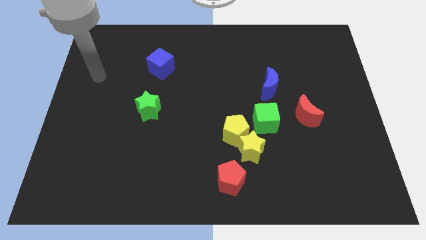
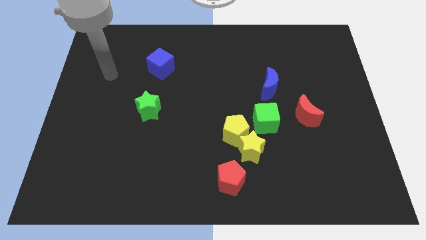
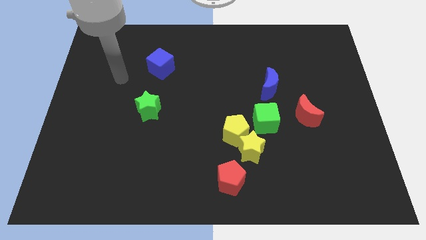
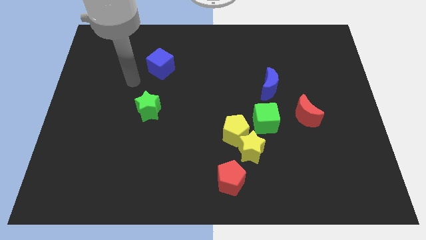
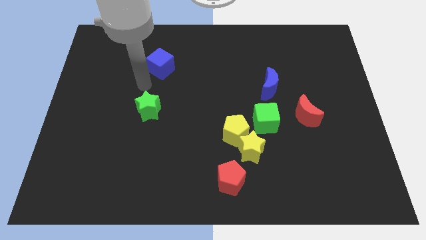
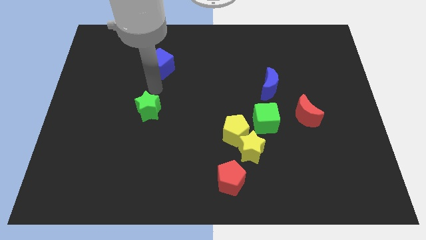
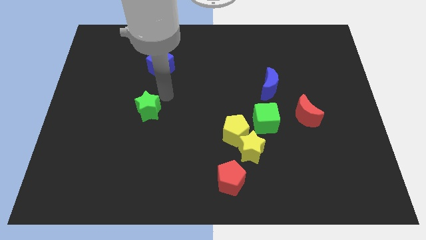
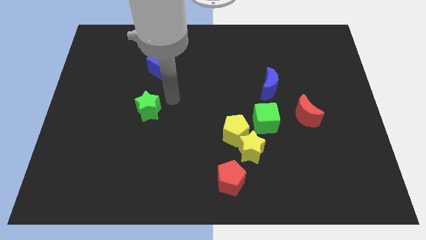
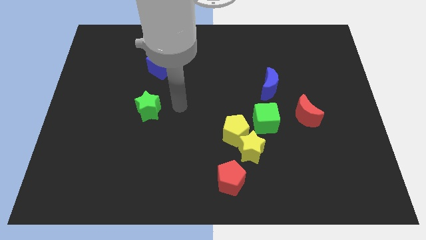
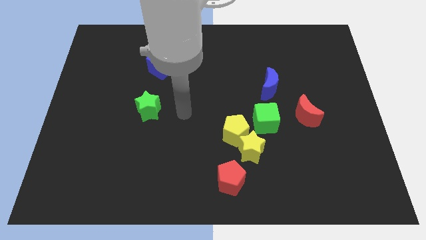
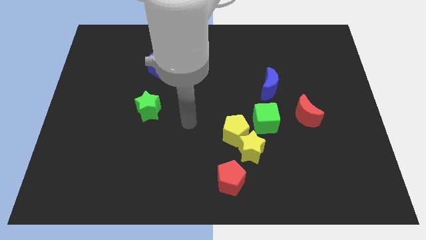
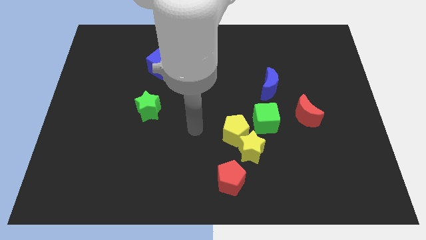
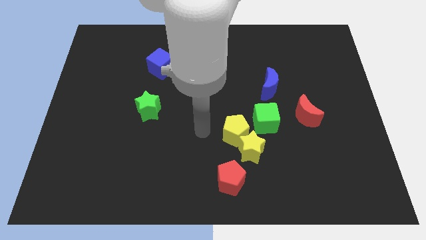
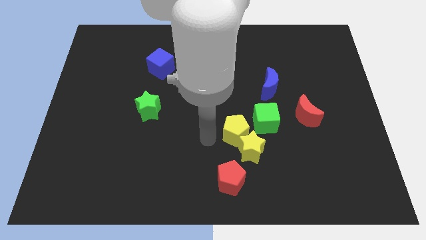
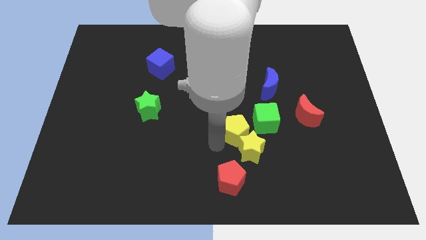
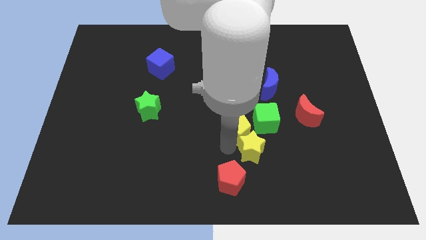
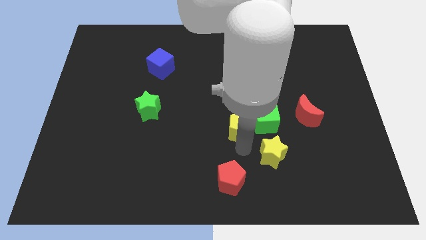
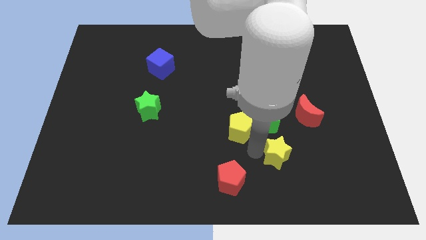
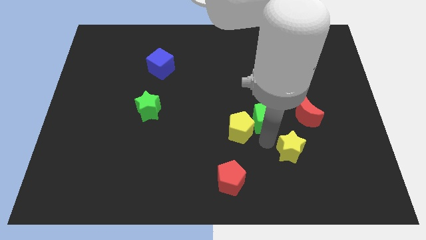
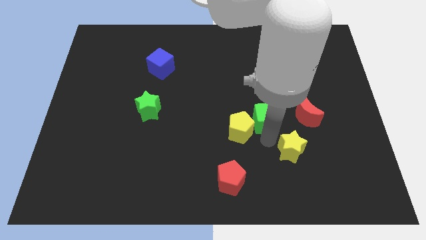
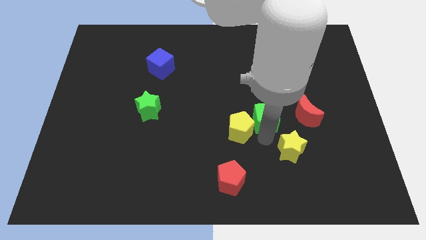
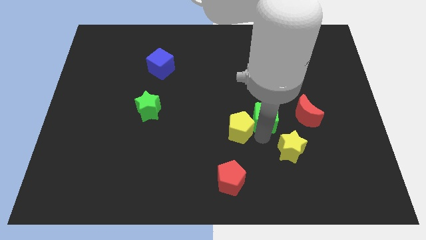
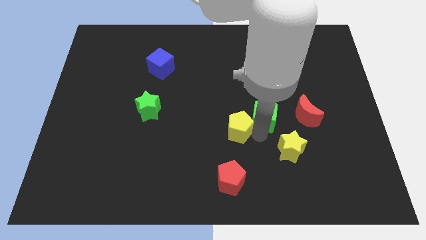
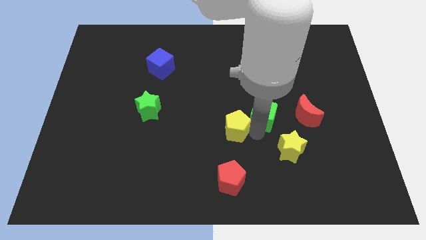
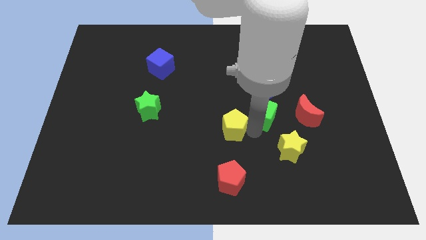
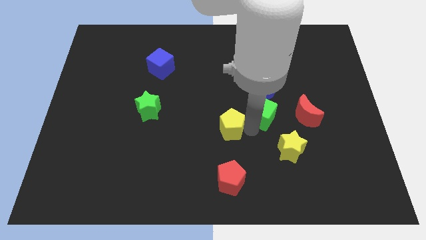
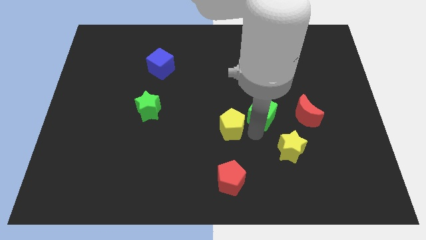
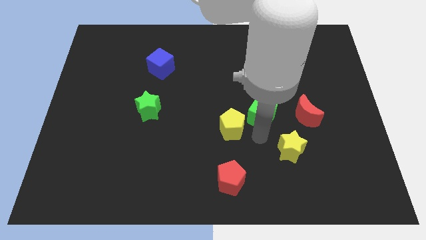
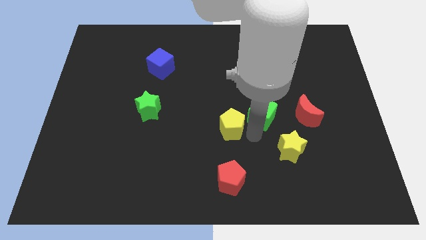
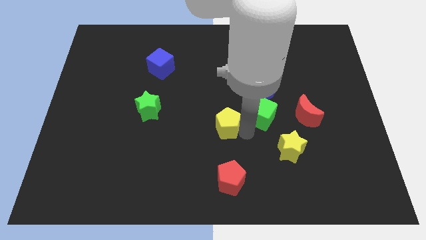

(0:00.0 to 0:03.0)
pull the yellow pentagon apart from the yellow star and green cube

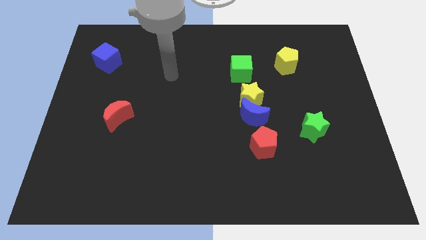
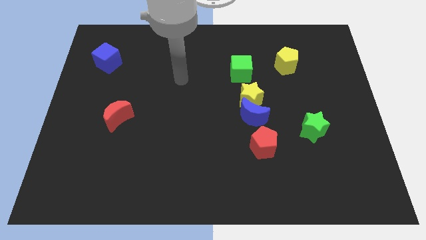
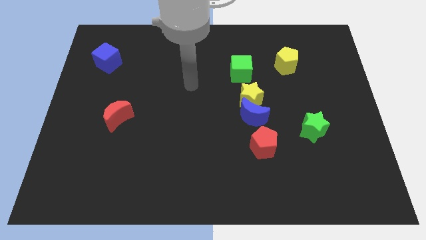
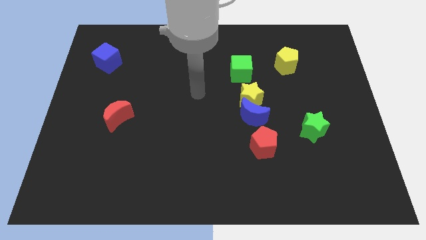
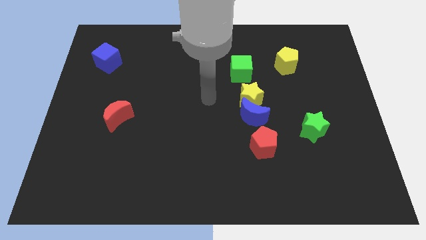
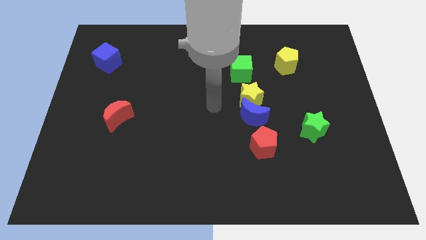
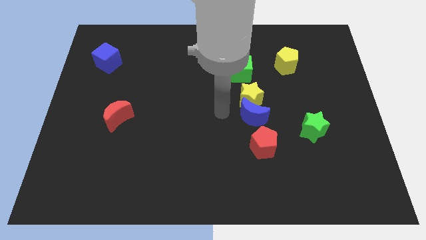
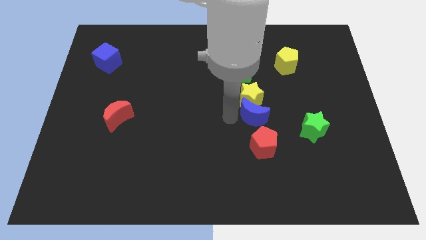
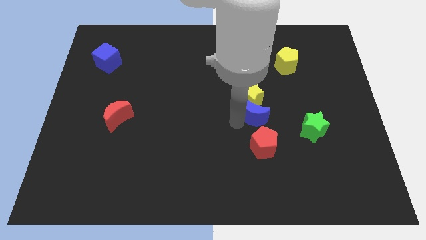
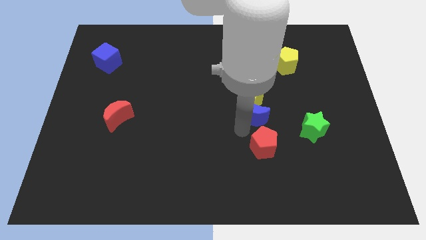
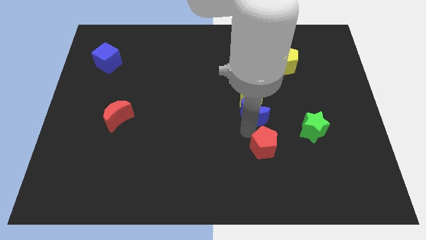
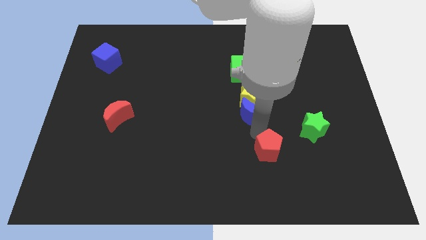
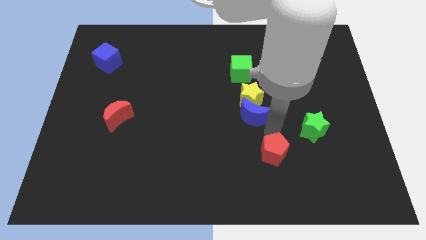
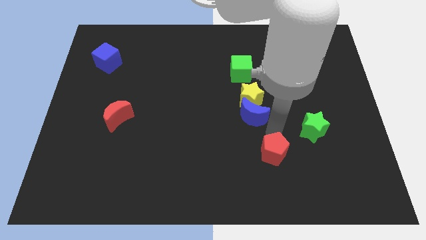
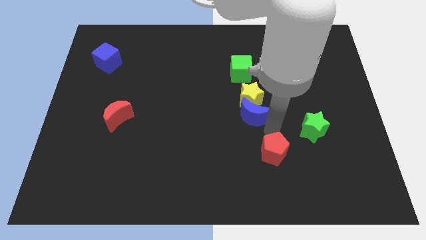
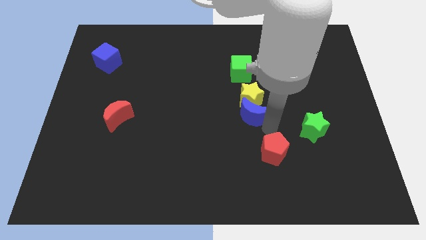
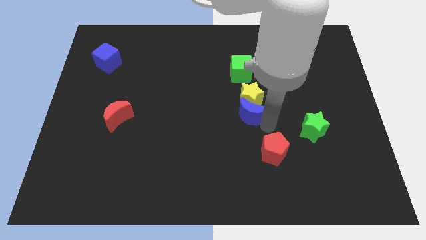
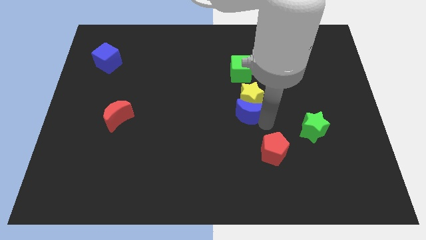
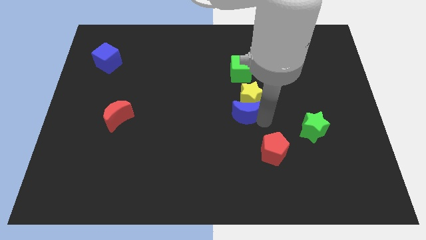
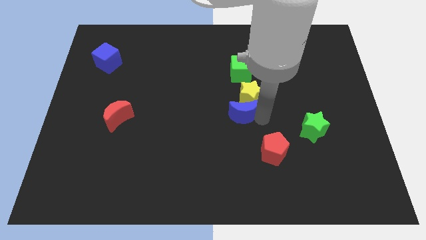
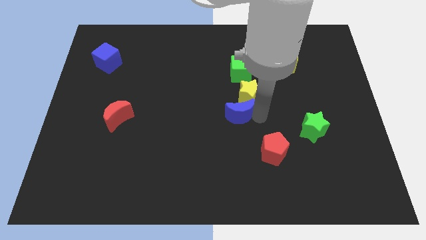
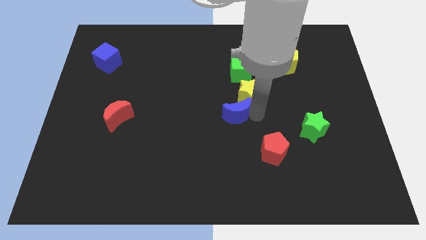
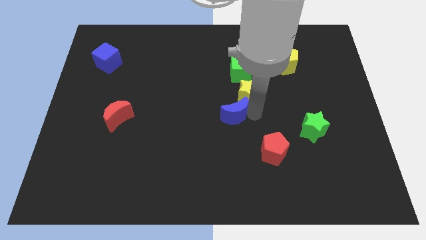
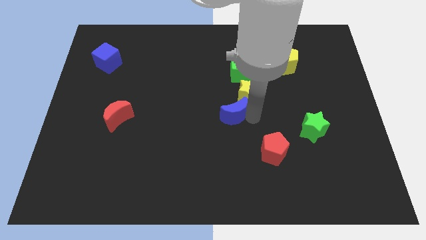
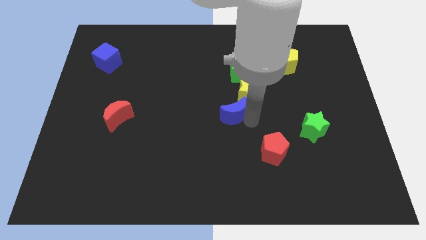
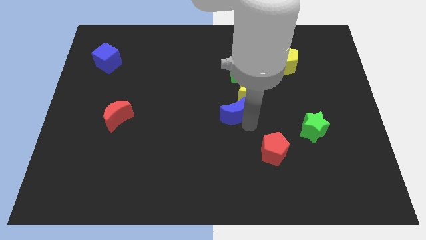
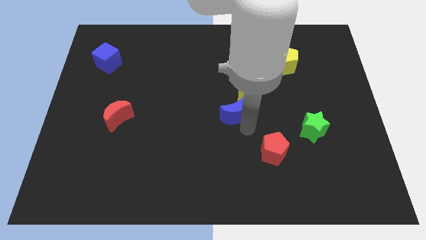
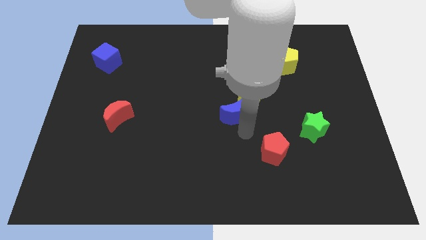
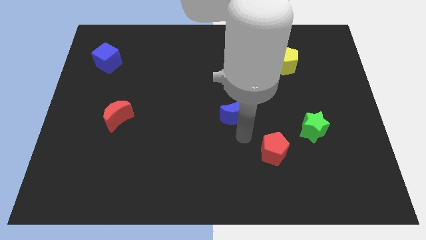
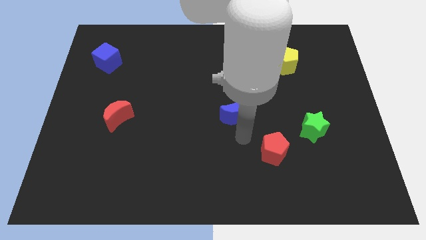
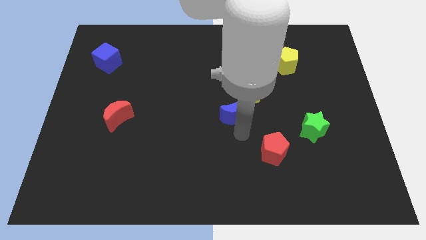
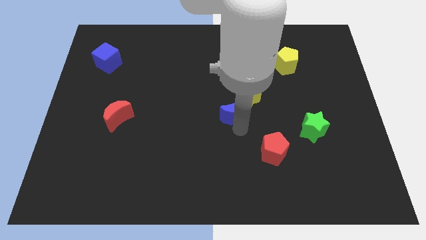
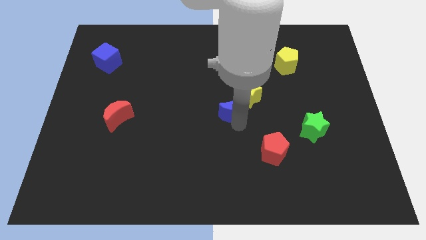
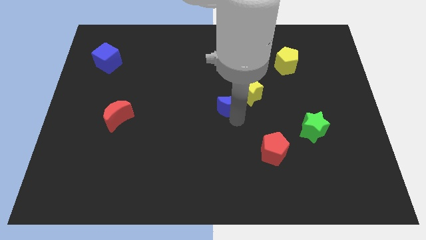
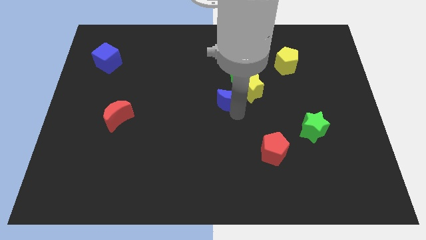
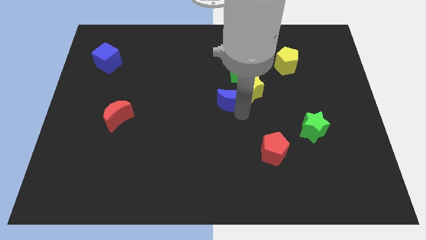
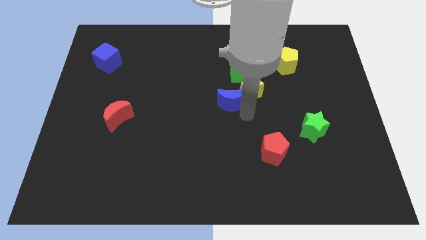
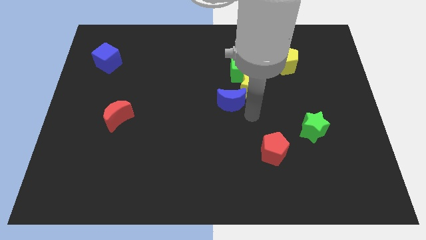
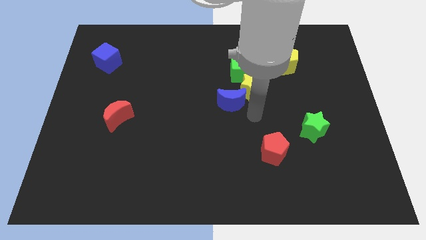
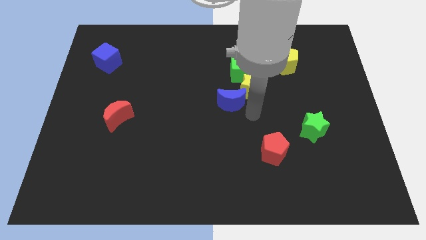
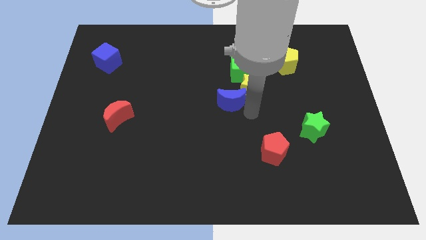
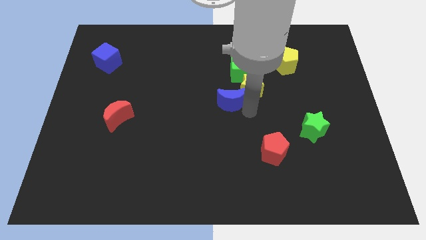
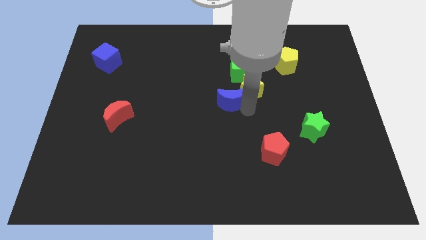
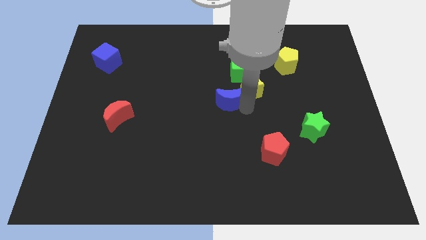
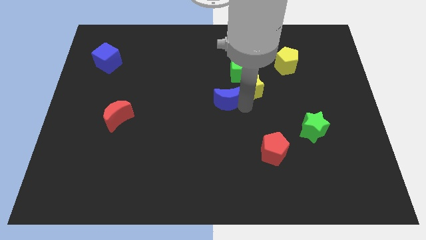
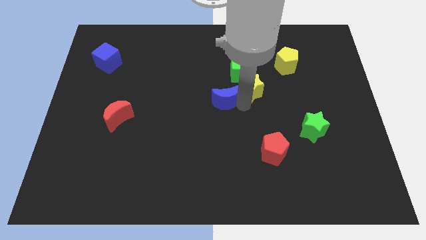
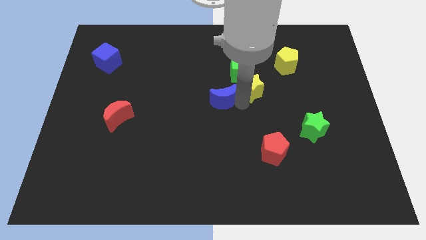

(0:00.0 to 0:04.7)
separate the blue moon from the yellow star and red pentagon

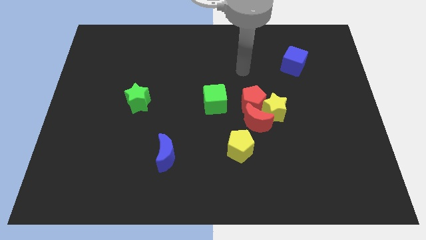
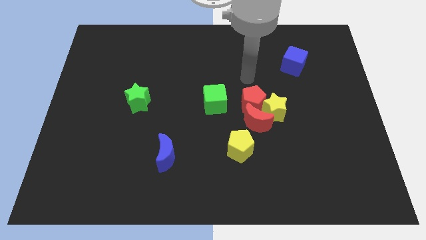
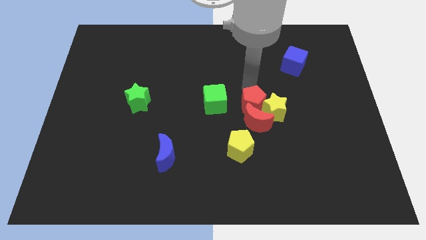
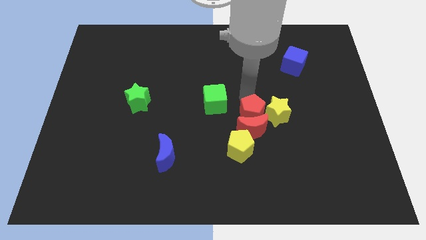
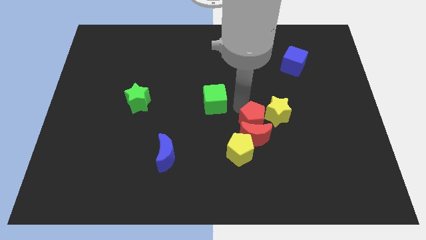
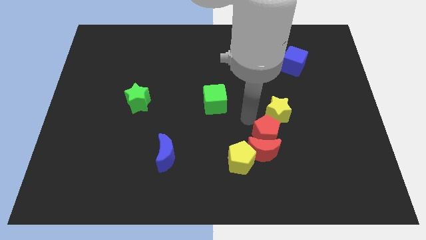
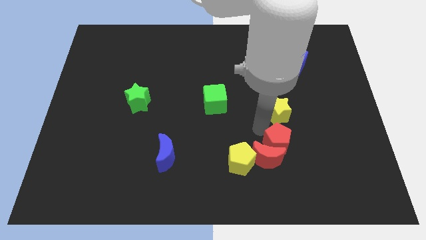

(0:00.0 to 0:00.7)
pull the yellow star apart from the red pentagon and red moon

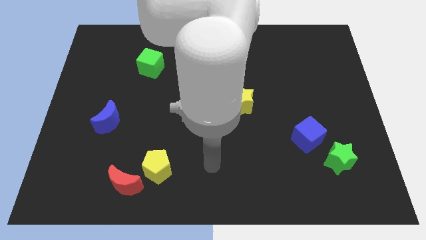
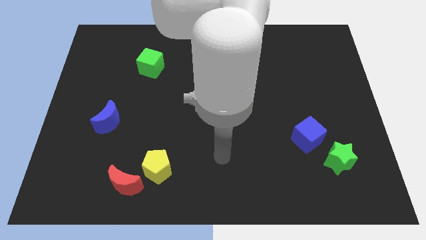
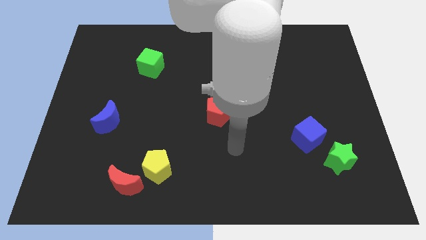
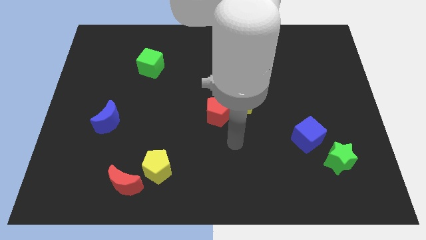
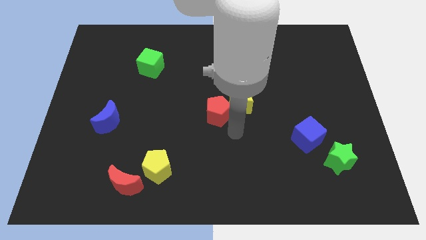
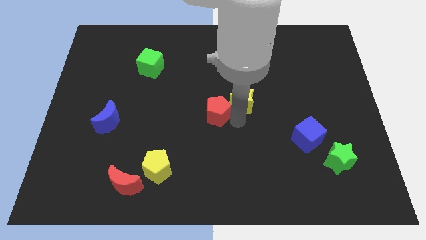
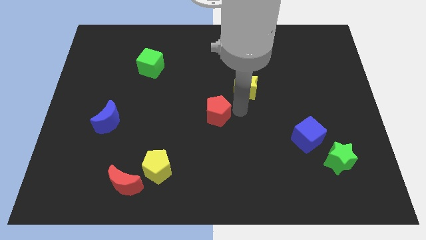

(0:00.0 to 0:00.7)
separate the red pentagon from the yellow star

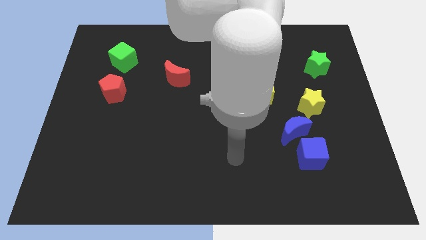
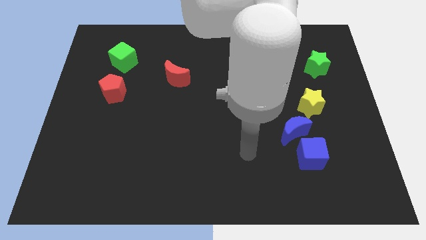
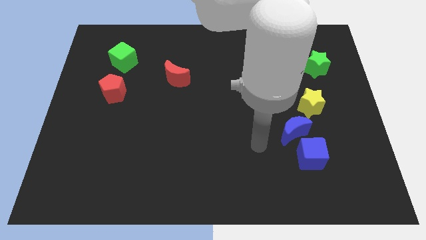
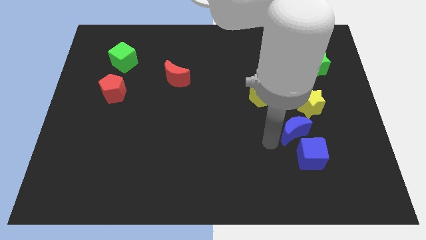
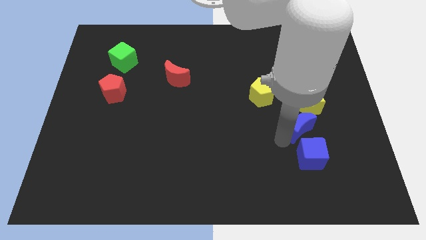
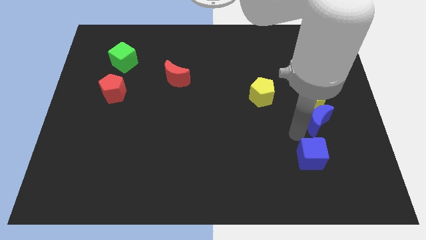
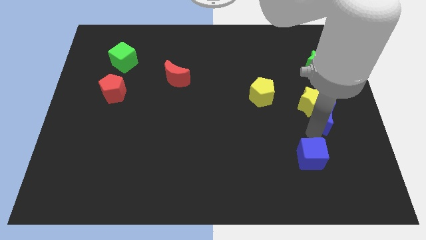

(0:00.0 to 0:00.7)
move the blue cube away from the blue moon
